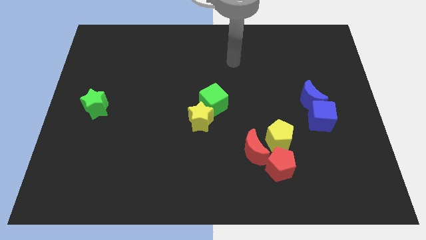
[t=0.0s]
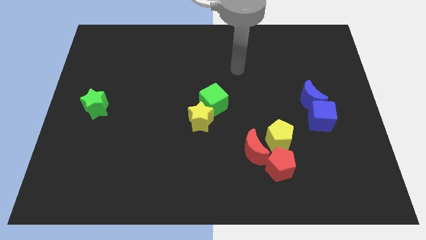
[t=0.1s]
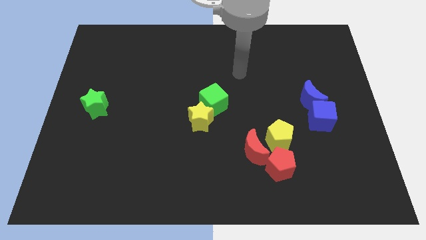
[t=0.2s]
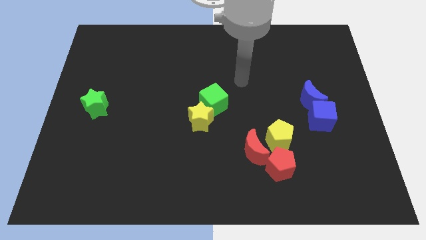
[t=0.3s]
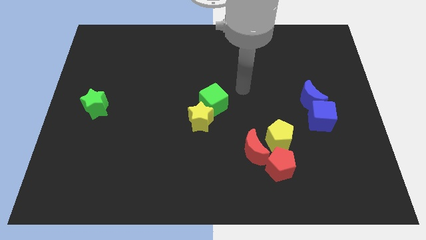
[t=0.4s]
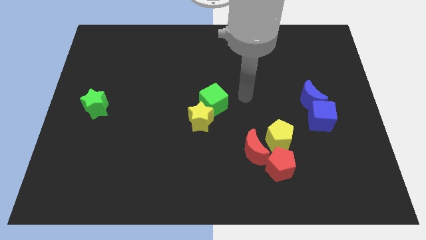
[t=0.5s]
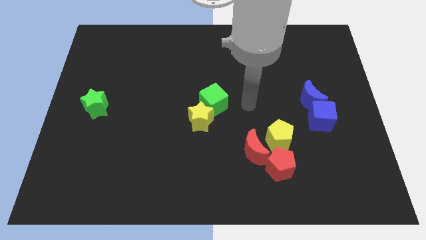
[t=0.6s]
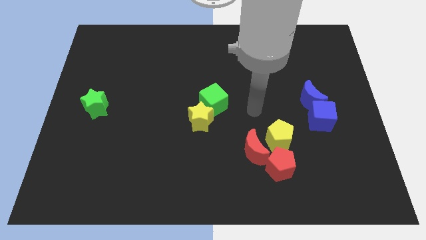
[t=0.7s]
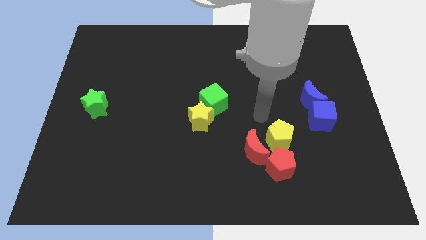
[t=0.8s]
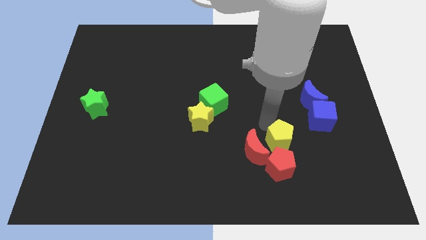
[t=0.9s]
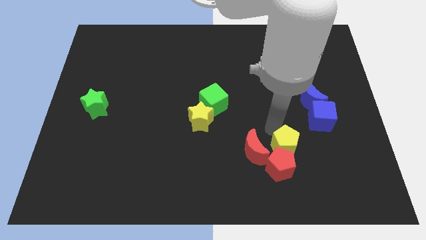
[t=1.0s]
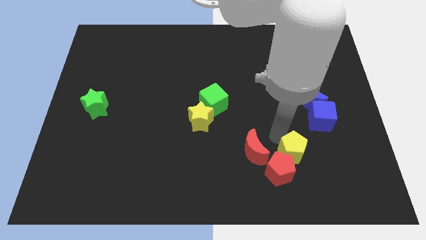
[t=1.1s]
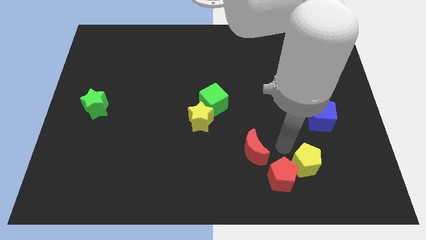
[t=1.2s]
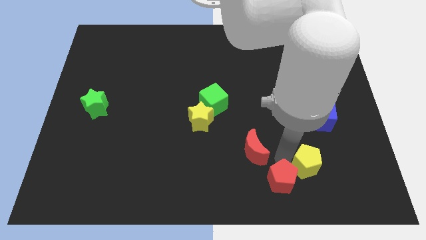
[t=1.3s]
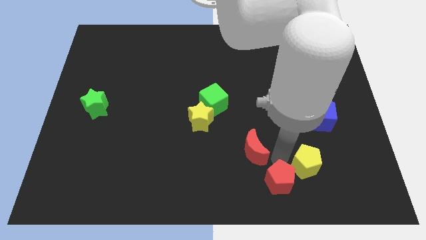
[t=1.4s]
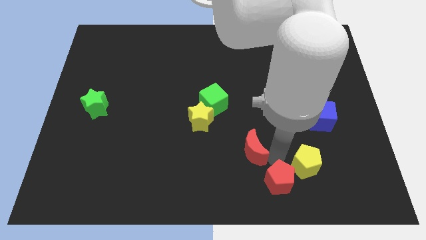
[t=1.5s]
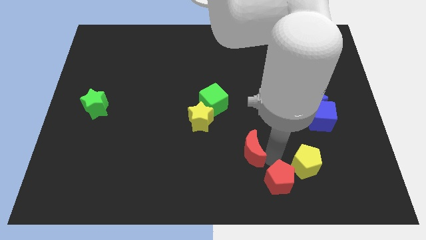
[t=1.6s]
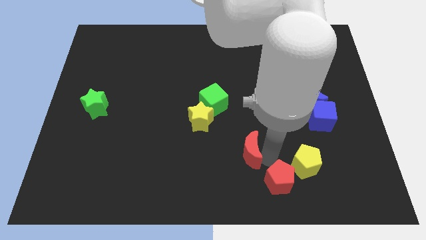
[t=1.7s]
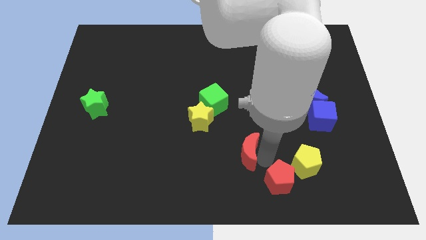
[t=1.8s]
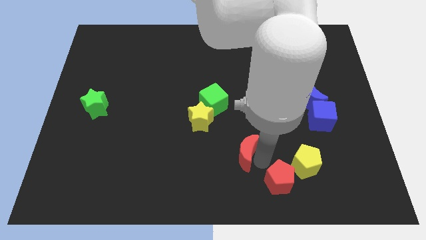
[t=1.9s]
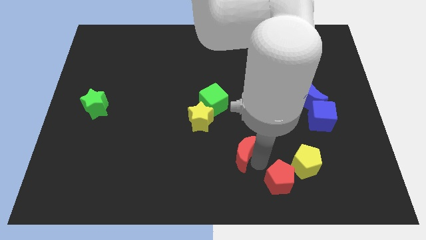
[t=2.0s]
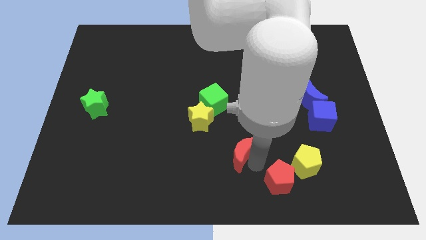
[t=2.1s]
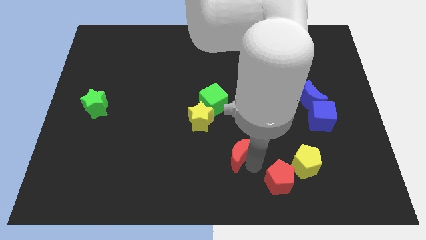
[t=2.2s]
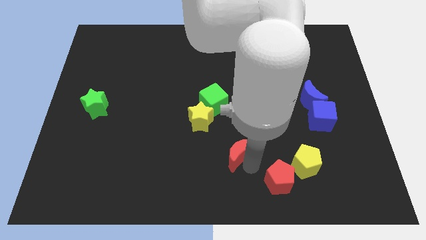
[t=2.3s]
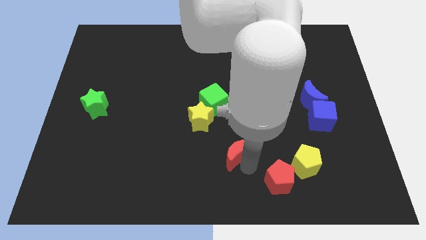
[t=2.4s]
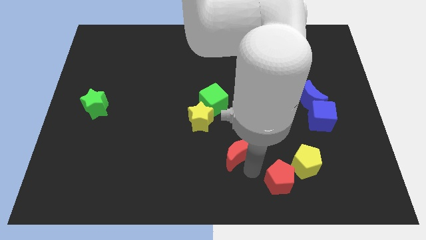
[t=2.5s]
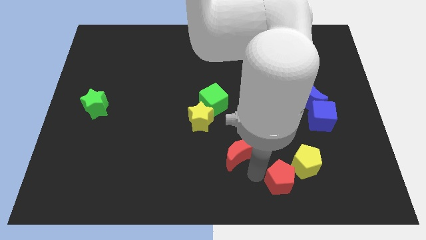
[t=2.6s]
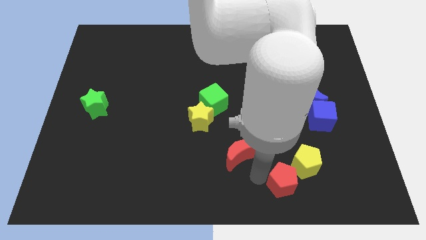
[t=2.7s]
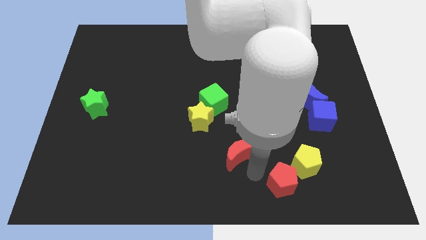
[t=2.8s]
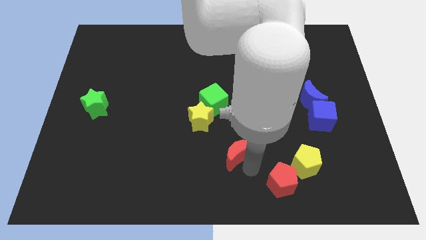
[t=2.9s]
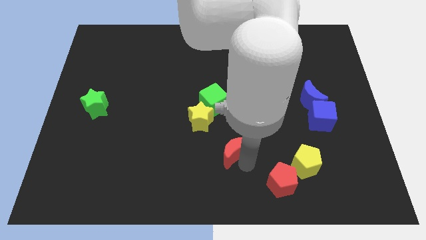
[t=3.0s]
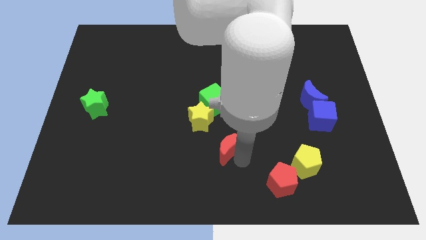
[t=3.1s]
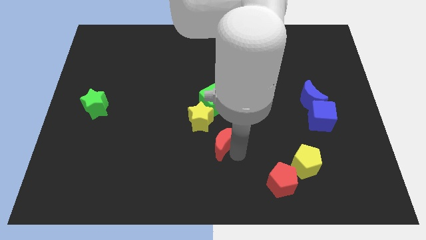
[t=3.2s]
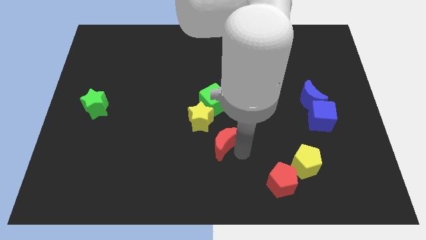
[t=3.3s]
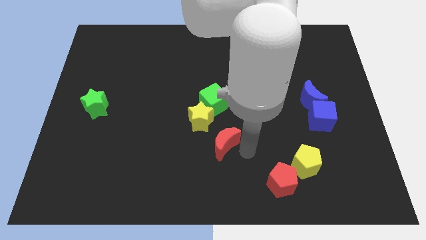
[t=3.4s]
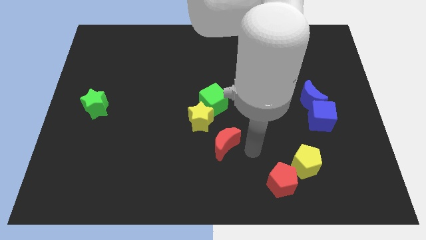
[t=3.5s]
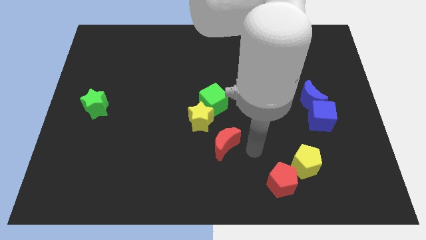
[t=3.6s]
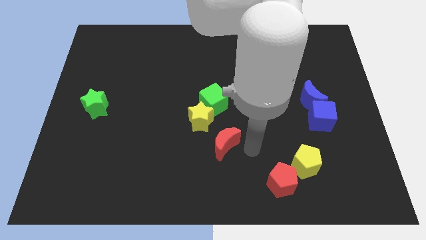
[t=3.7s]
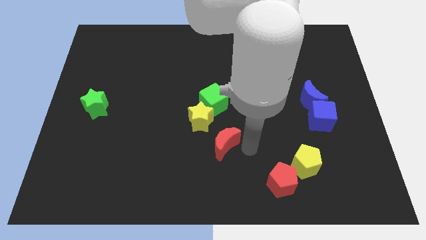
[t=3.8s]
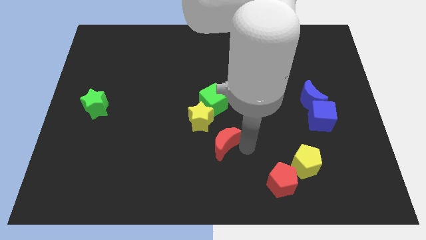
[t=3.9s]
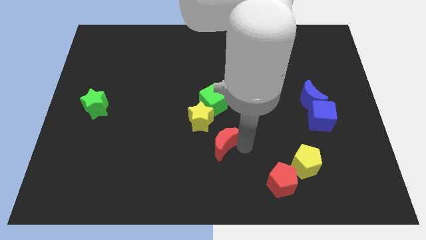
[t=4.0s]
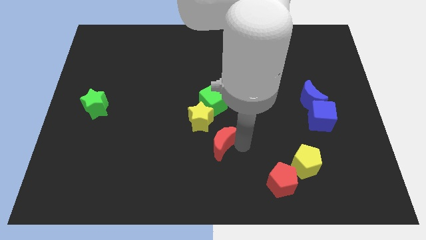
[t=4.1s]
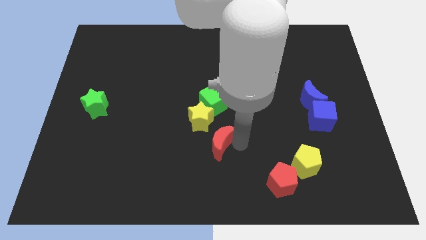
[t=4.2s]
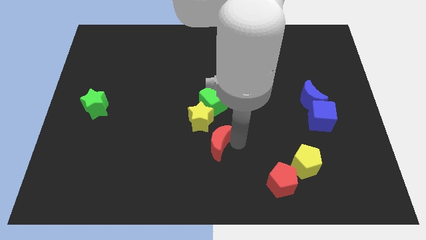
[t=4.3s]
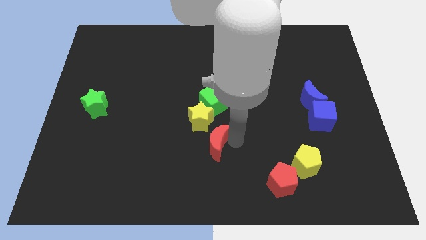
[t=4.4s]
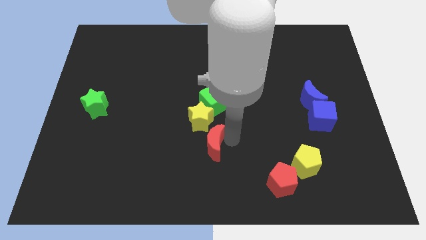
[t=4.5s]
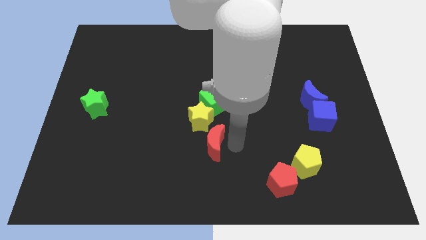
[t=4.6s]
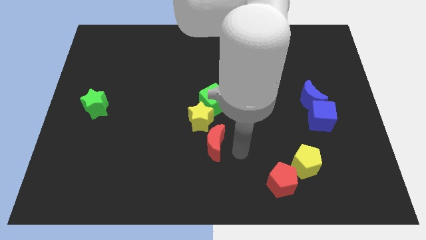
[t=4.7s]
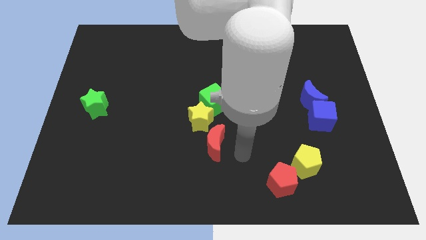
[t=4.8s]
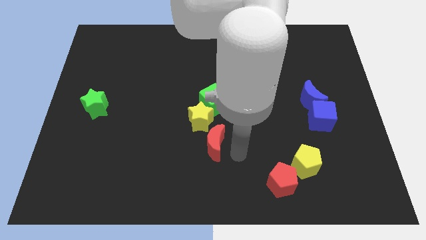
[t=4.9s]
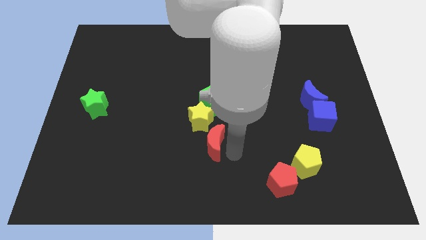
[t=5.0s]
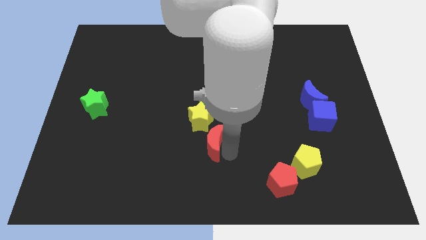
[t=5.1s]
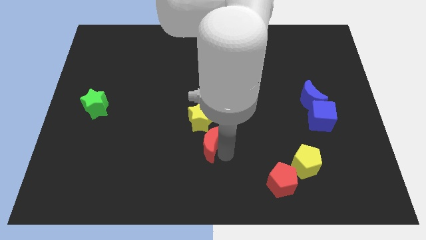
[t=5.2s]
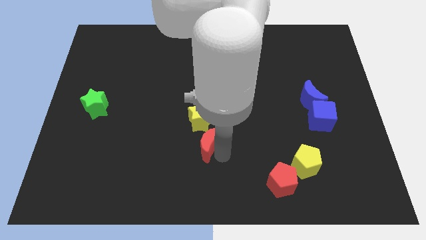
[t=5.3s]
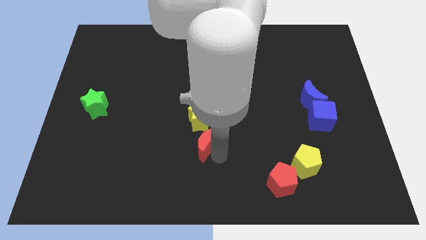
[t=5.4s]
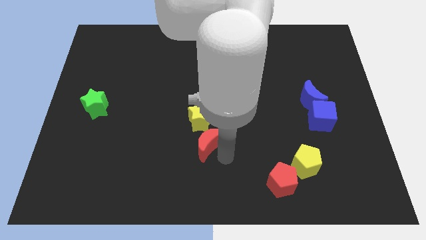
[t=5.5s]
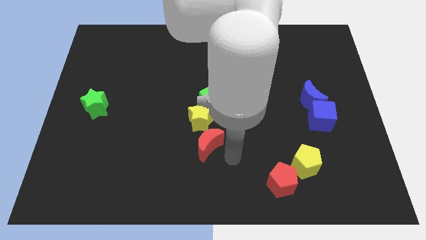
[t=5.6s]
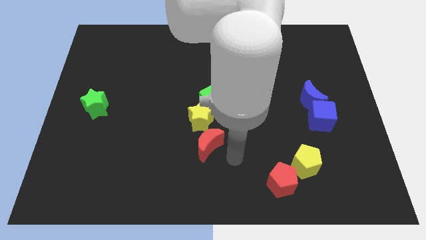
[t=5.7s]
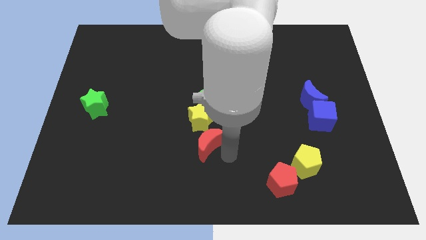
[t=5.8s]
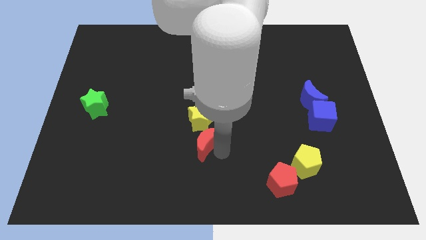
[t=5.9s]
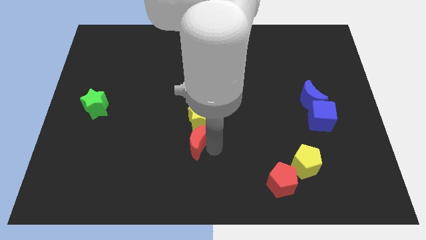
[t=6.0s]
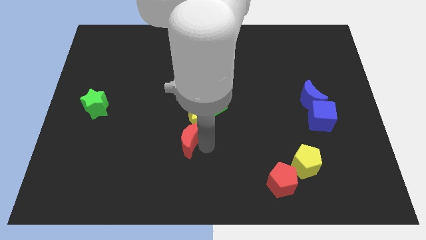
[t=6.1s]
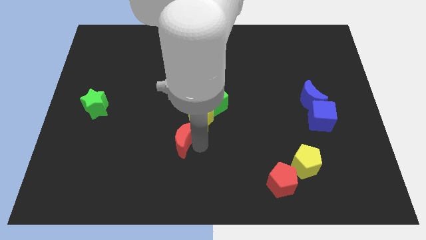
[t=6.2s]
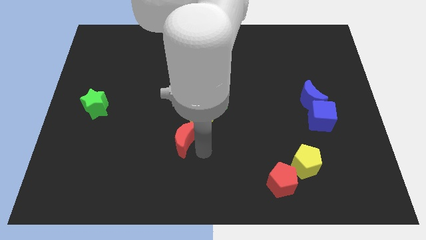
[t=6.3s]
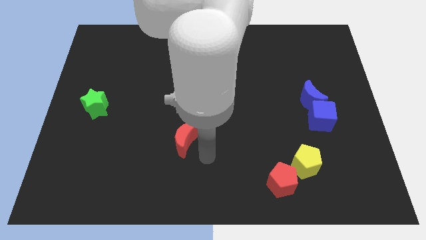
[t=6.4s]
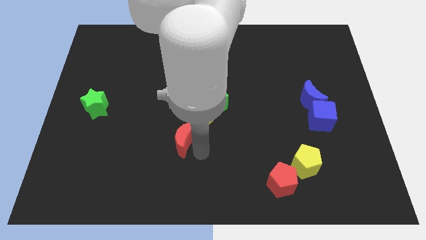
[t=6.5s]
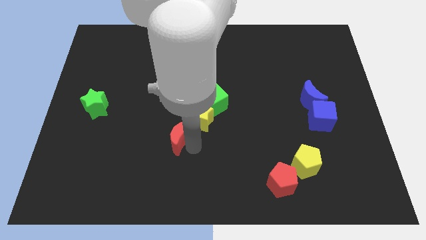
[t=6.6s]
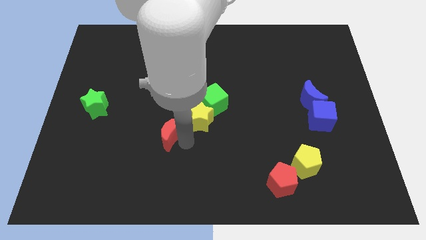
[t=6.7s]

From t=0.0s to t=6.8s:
move the red moon just left of the yellow star

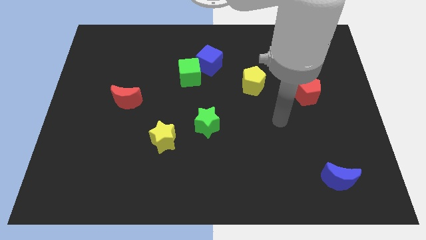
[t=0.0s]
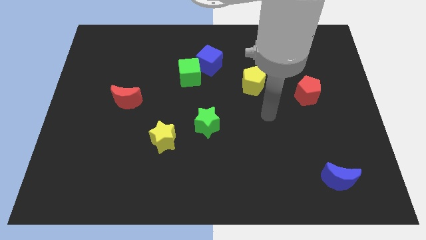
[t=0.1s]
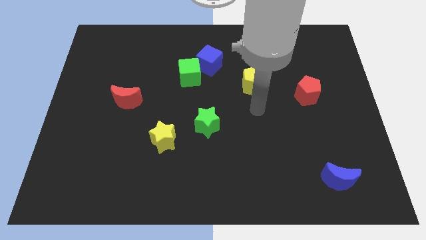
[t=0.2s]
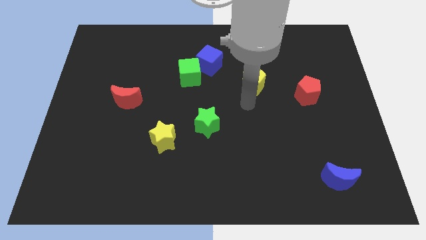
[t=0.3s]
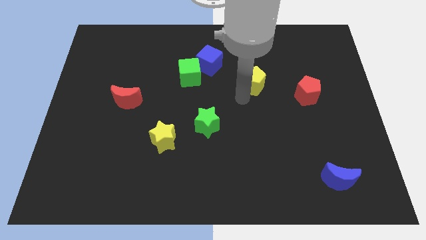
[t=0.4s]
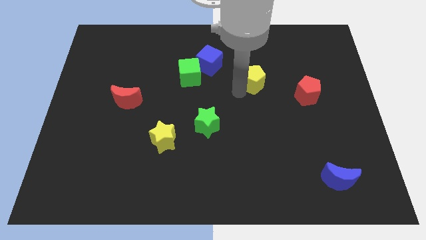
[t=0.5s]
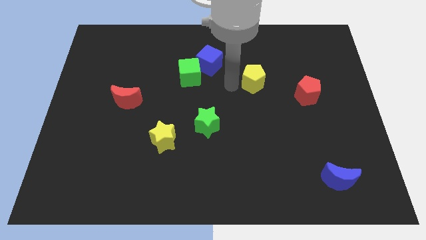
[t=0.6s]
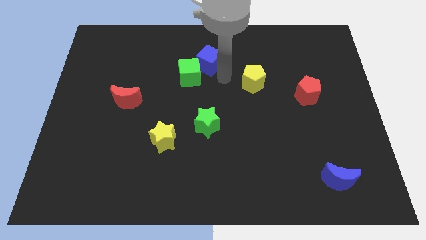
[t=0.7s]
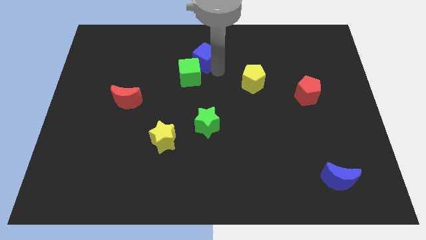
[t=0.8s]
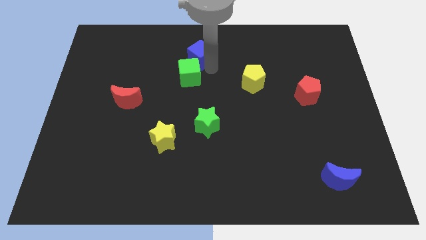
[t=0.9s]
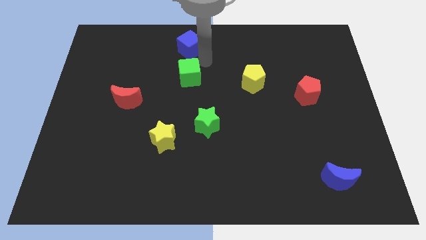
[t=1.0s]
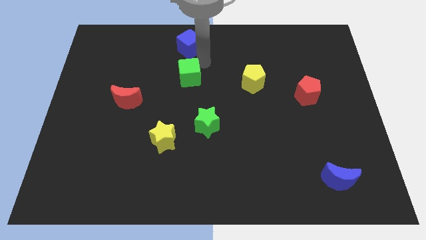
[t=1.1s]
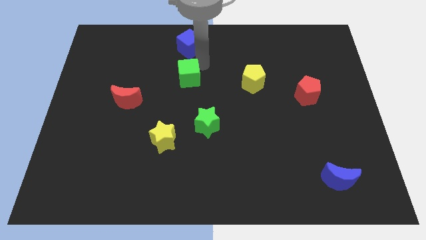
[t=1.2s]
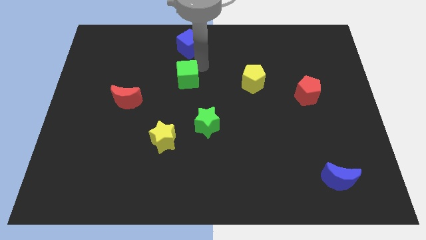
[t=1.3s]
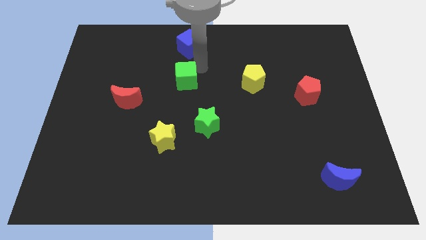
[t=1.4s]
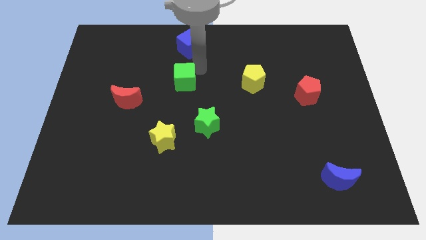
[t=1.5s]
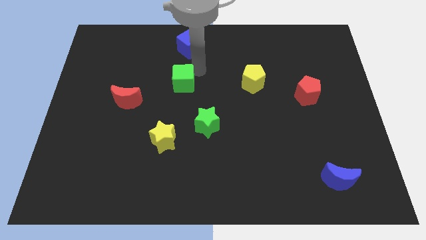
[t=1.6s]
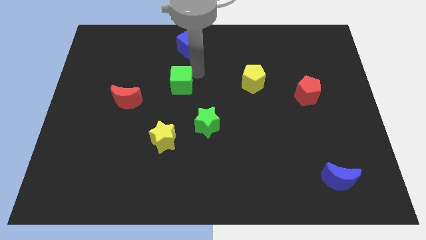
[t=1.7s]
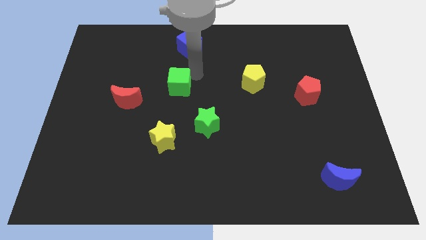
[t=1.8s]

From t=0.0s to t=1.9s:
slide the green cube right of the red moon
